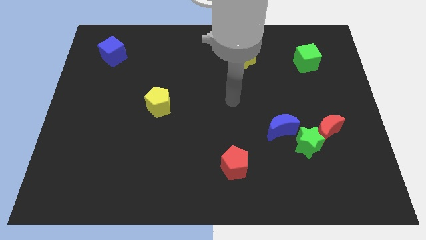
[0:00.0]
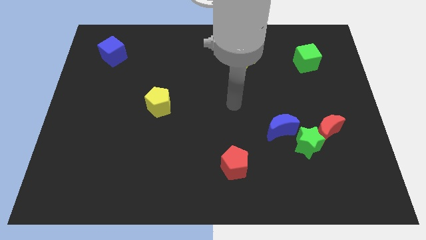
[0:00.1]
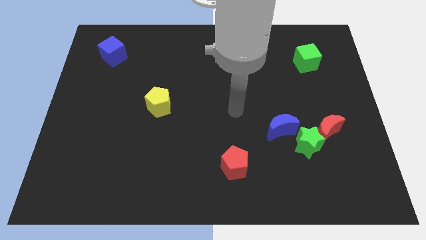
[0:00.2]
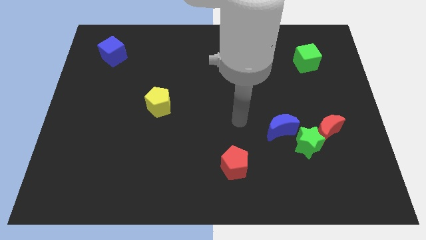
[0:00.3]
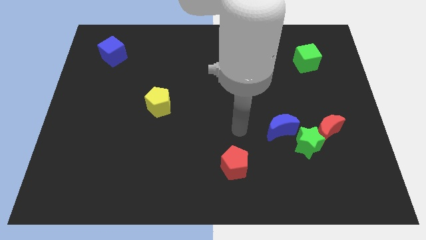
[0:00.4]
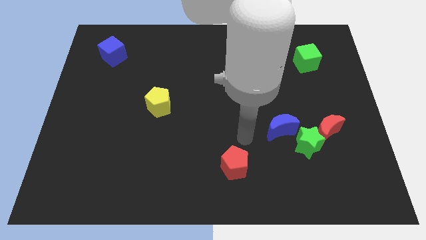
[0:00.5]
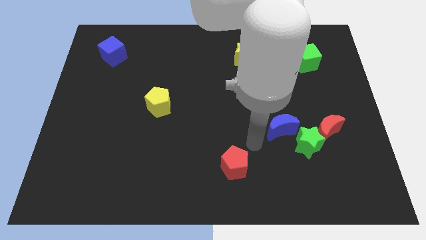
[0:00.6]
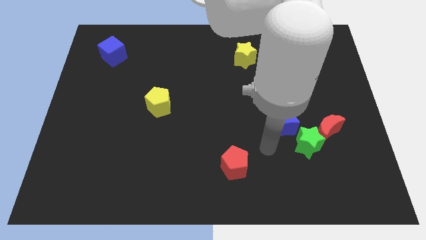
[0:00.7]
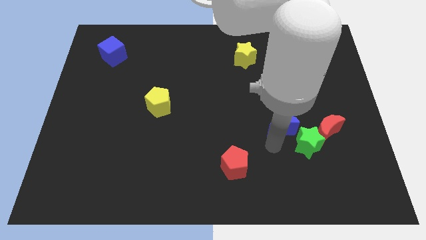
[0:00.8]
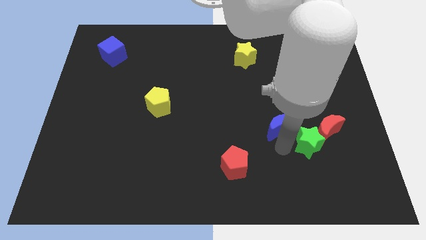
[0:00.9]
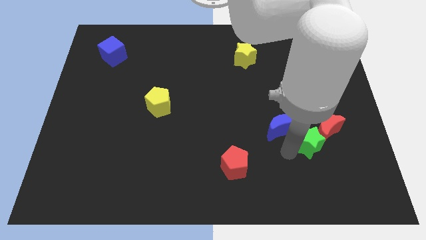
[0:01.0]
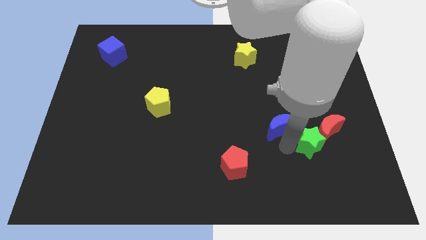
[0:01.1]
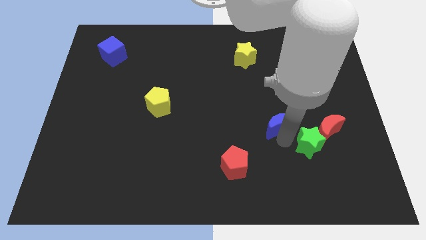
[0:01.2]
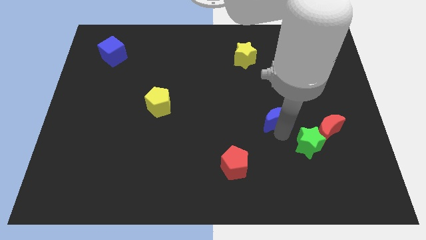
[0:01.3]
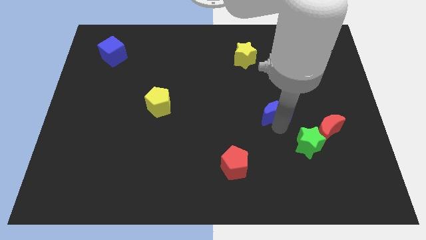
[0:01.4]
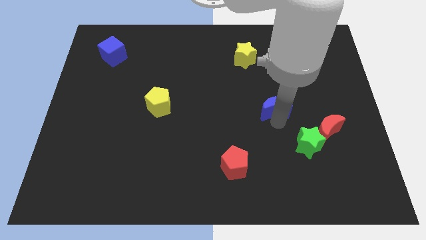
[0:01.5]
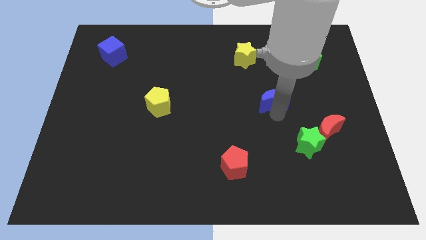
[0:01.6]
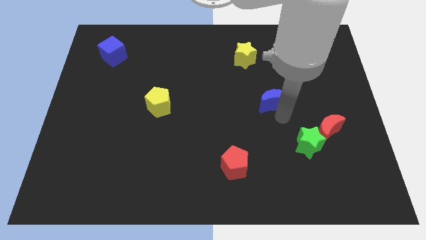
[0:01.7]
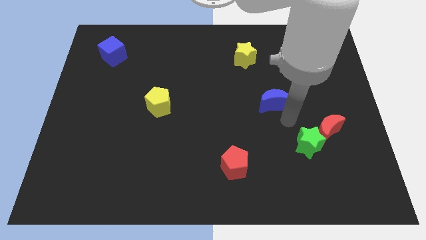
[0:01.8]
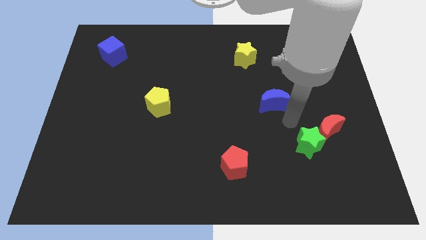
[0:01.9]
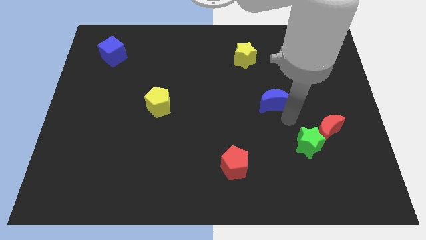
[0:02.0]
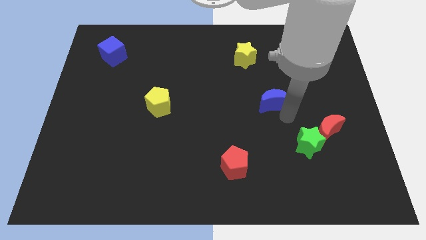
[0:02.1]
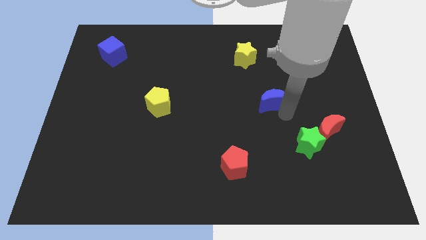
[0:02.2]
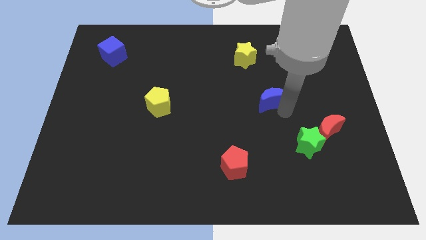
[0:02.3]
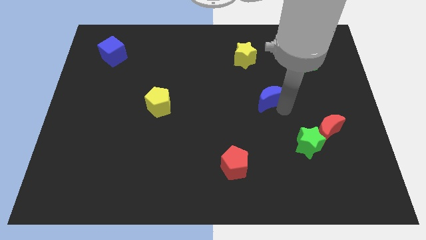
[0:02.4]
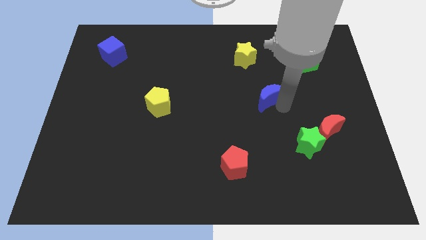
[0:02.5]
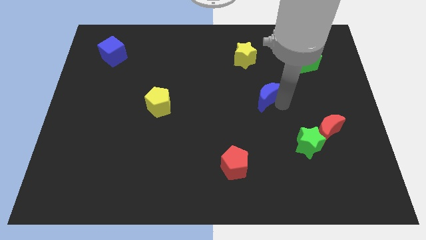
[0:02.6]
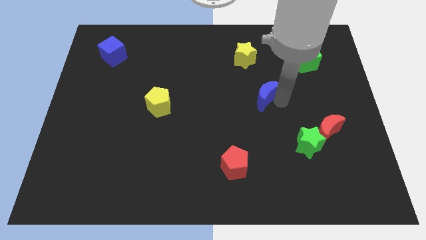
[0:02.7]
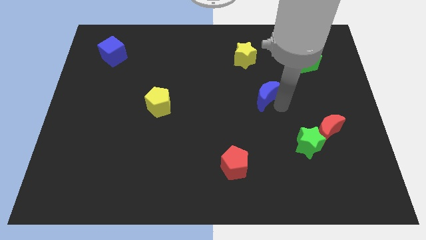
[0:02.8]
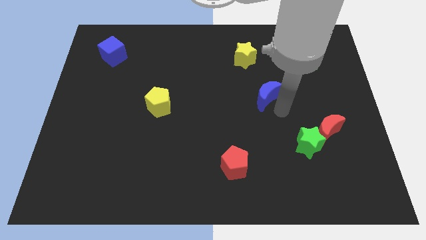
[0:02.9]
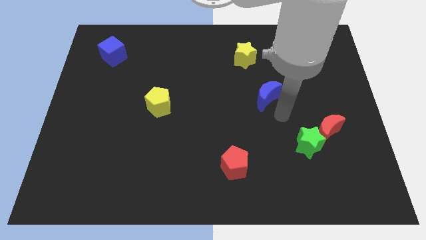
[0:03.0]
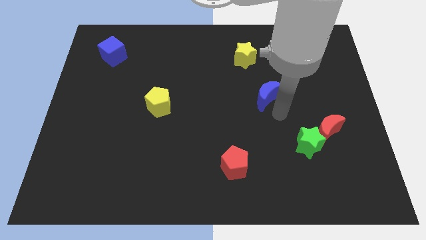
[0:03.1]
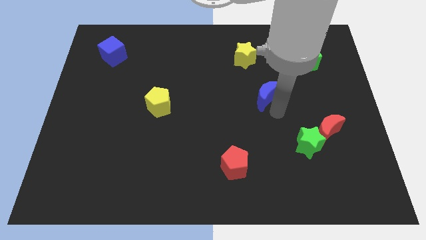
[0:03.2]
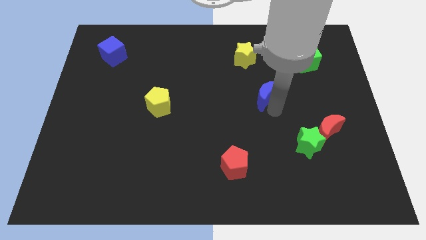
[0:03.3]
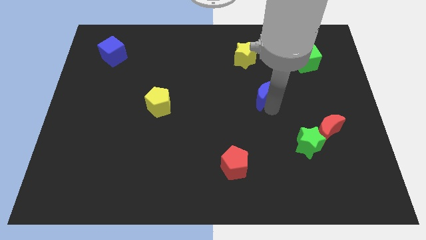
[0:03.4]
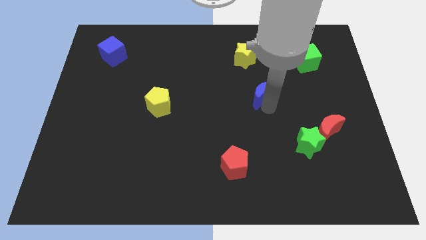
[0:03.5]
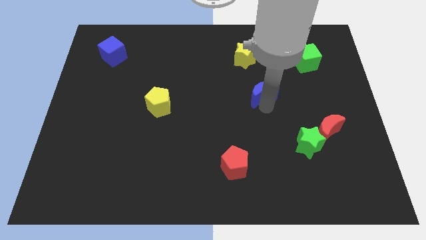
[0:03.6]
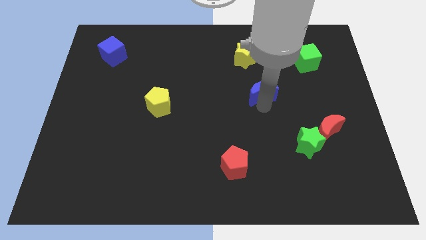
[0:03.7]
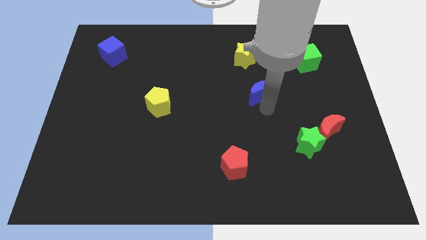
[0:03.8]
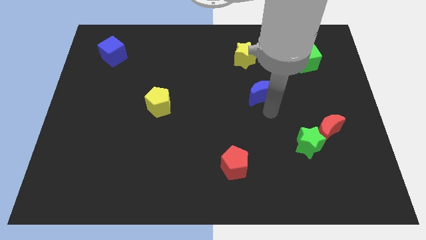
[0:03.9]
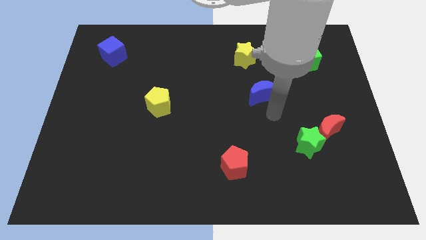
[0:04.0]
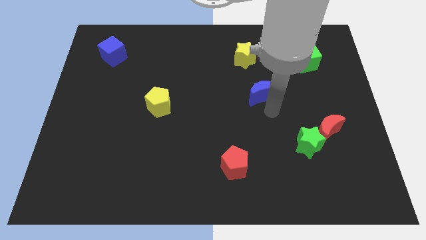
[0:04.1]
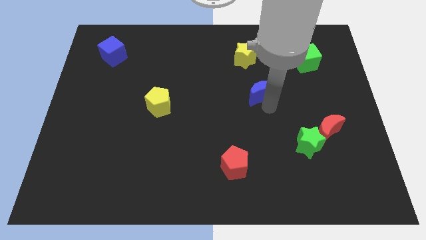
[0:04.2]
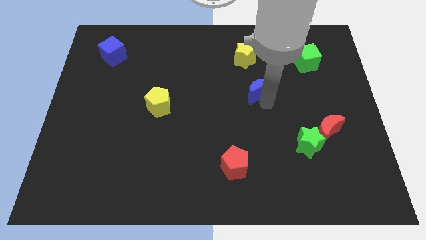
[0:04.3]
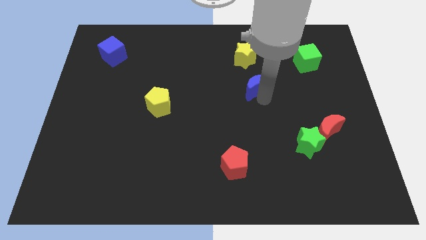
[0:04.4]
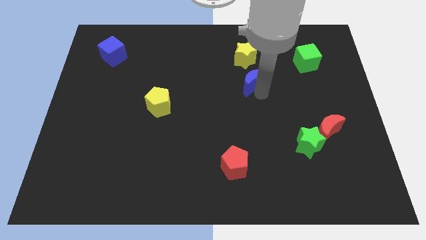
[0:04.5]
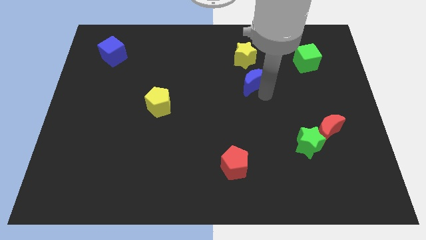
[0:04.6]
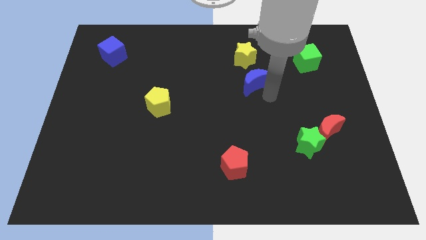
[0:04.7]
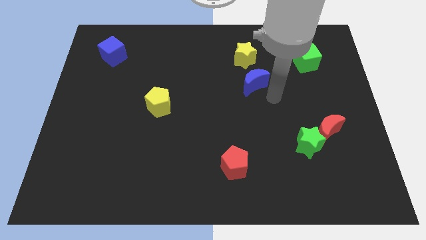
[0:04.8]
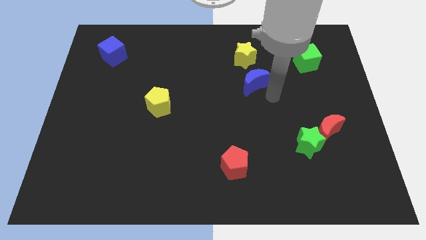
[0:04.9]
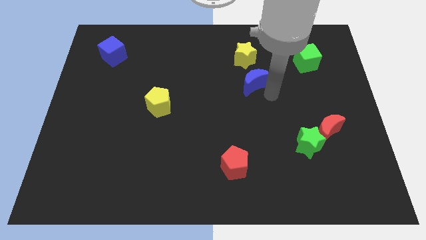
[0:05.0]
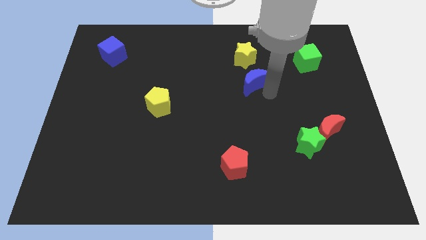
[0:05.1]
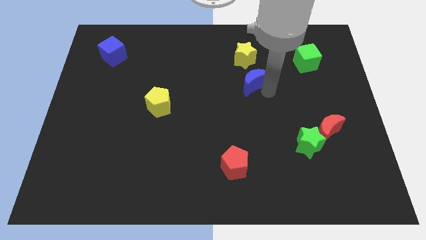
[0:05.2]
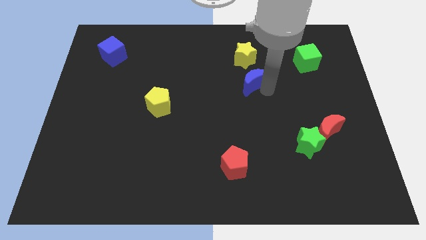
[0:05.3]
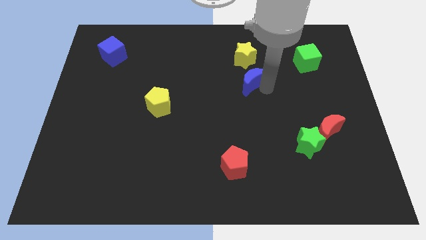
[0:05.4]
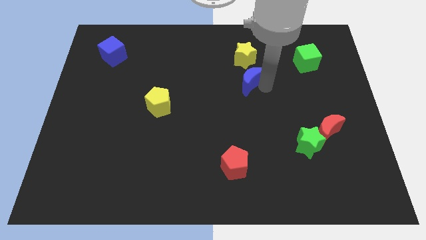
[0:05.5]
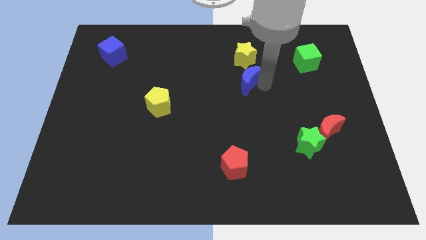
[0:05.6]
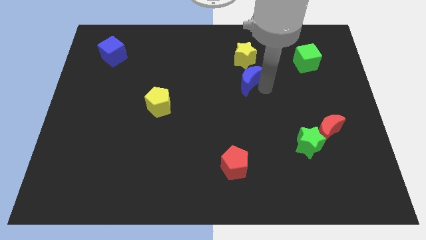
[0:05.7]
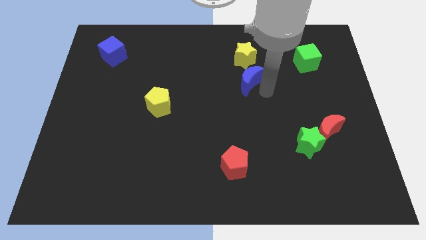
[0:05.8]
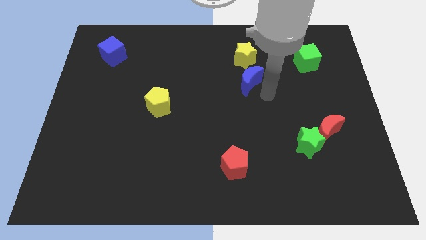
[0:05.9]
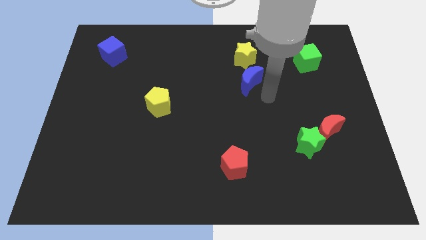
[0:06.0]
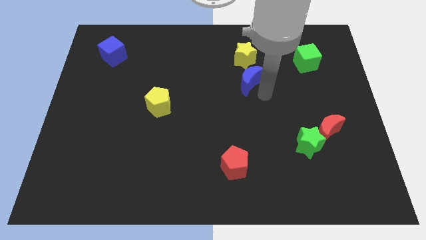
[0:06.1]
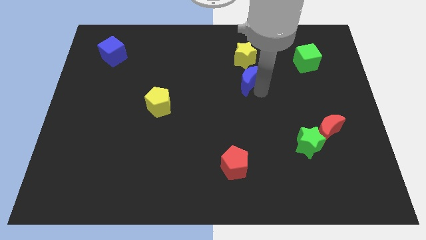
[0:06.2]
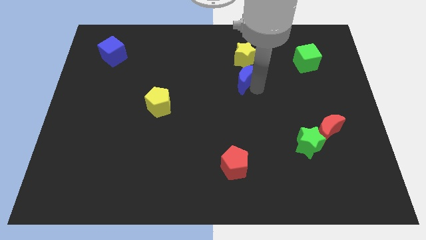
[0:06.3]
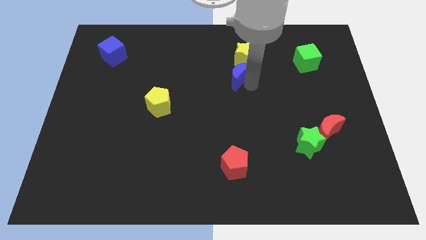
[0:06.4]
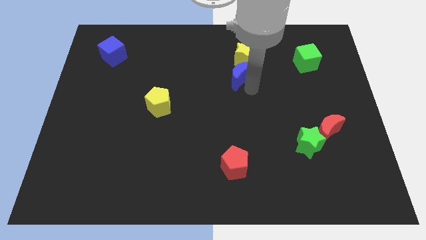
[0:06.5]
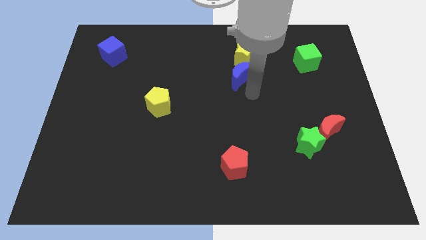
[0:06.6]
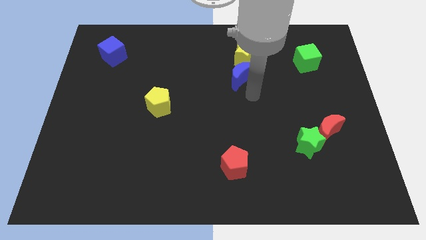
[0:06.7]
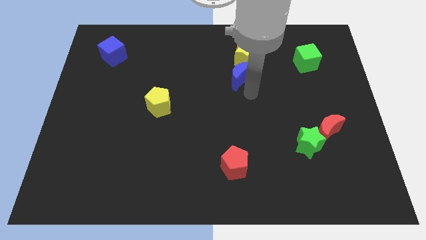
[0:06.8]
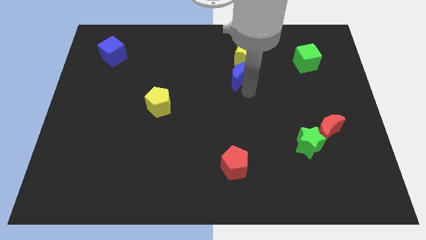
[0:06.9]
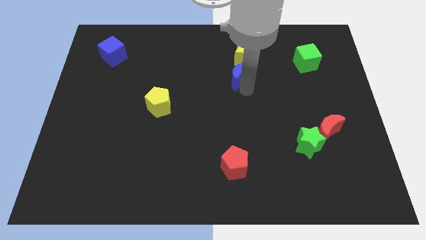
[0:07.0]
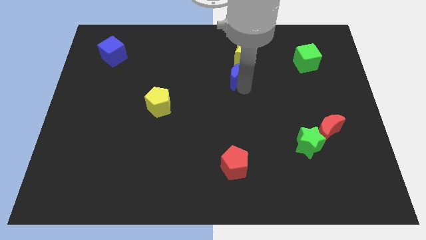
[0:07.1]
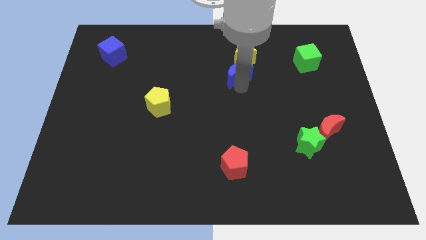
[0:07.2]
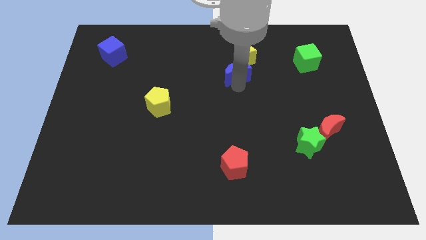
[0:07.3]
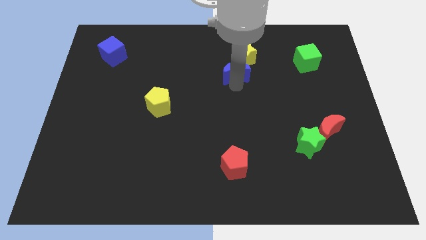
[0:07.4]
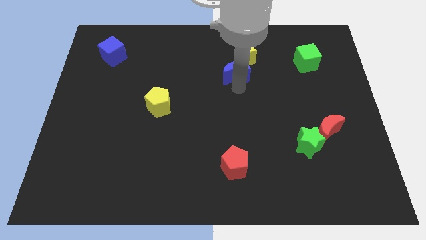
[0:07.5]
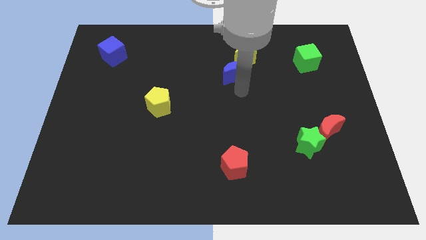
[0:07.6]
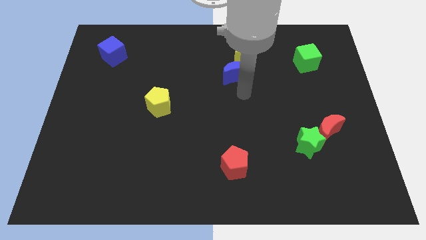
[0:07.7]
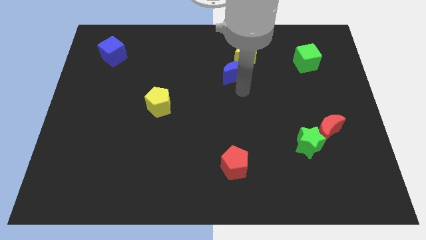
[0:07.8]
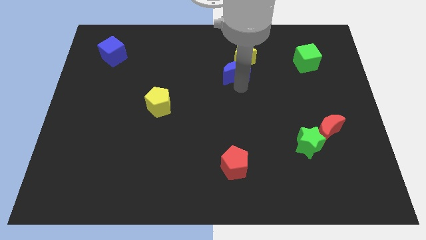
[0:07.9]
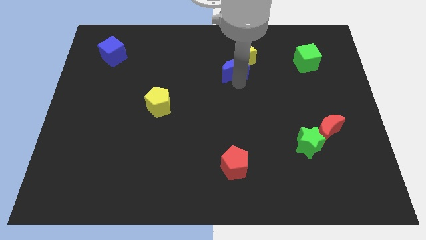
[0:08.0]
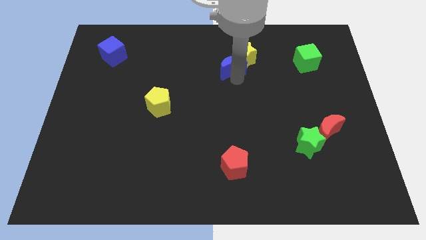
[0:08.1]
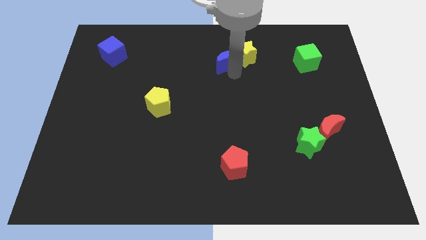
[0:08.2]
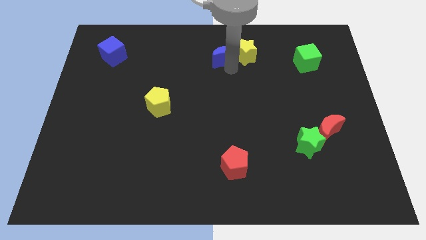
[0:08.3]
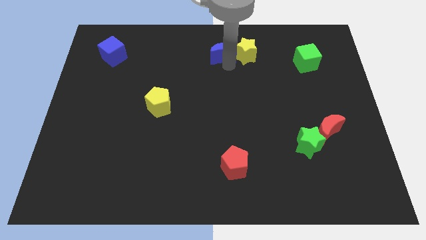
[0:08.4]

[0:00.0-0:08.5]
move the blue moon to the top
